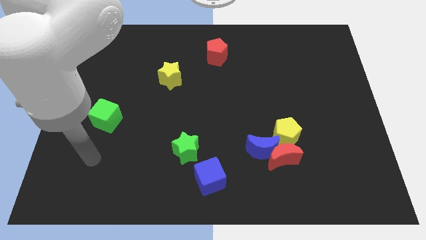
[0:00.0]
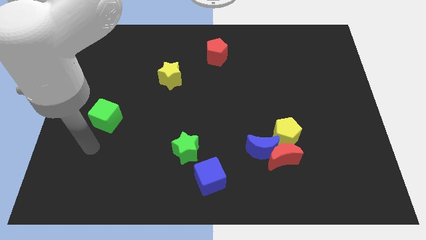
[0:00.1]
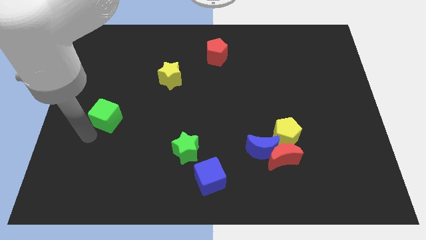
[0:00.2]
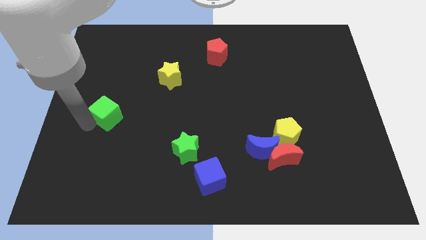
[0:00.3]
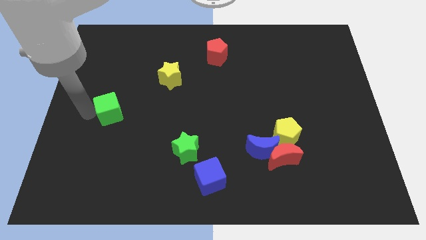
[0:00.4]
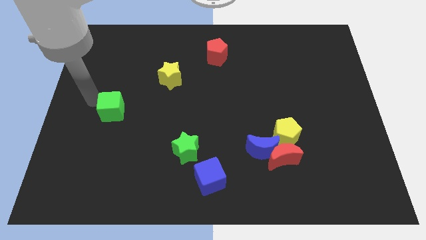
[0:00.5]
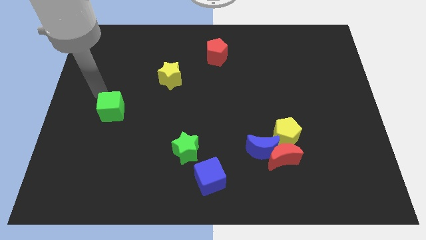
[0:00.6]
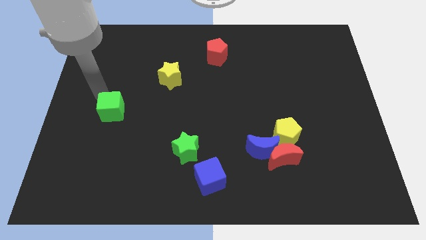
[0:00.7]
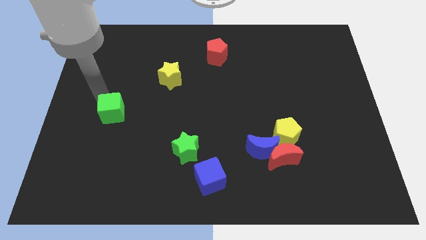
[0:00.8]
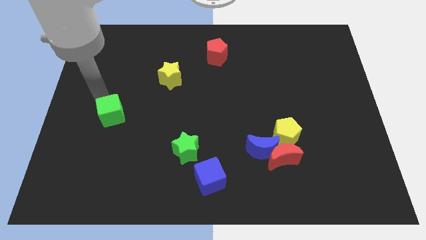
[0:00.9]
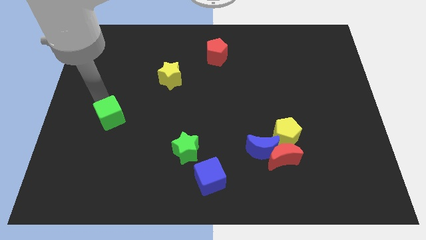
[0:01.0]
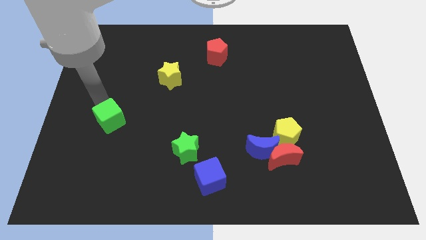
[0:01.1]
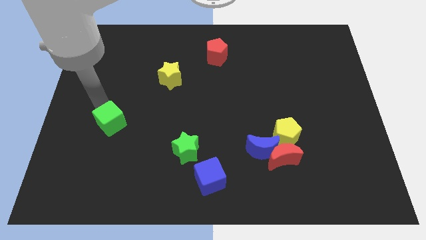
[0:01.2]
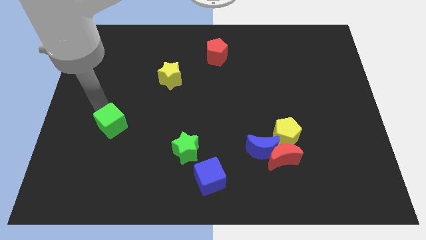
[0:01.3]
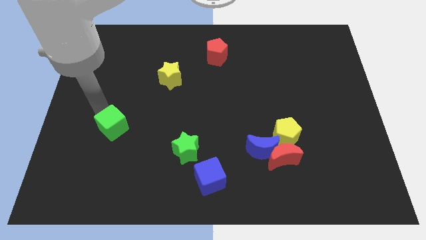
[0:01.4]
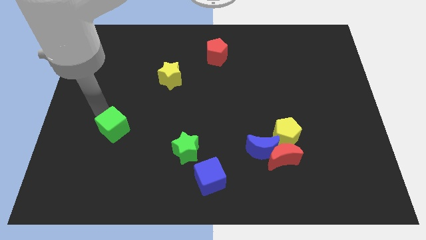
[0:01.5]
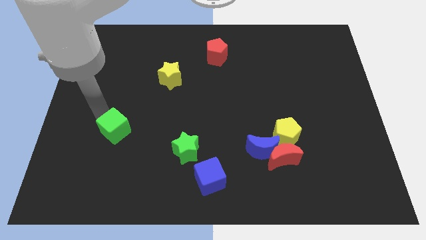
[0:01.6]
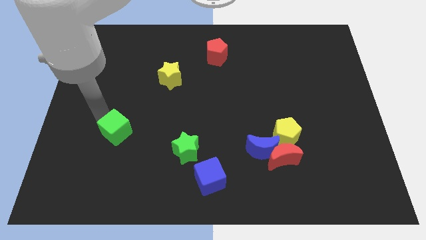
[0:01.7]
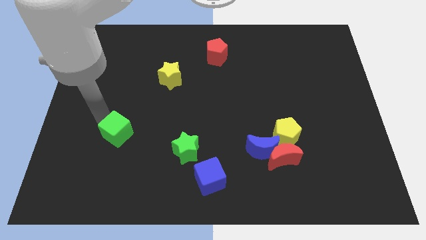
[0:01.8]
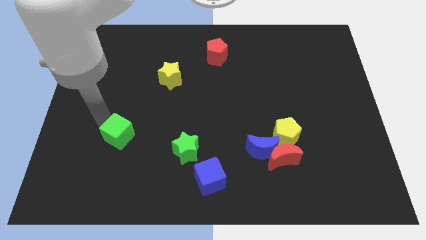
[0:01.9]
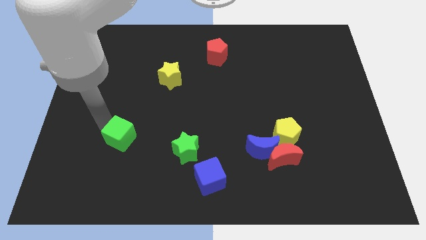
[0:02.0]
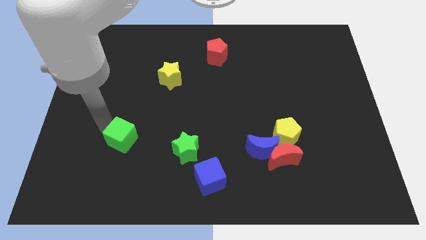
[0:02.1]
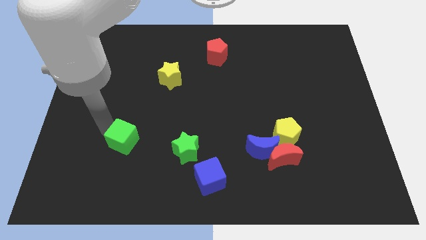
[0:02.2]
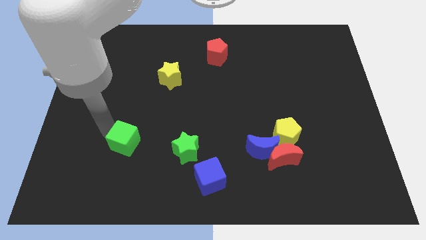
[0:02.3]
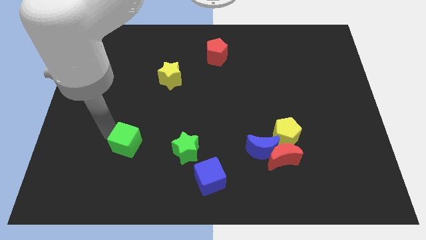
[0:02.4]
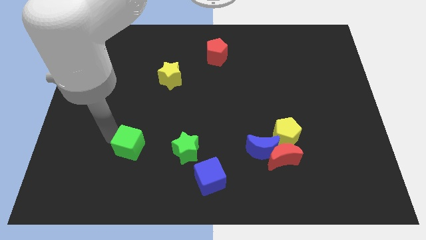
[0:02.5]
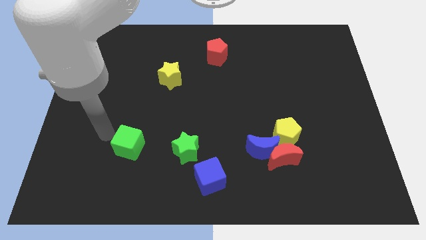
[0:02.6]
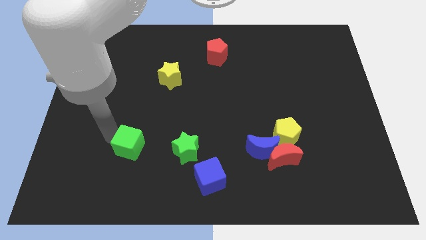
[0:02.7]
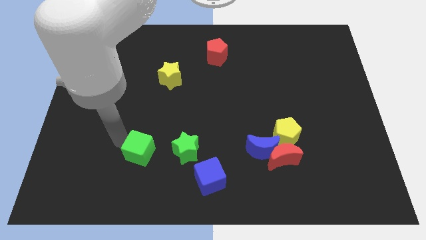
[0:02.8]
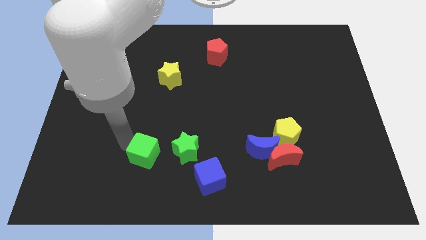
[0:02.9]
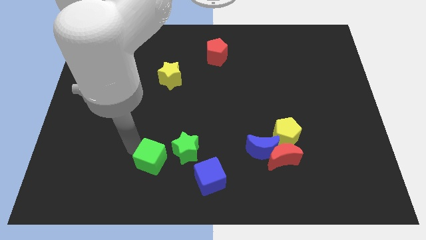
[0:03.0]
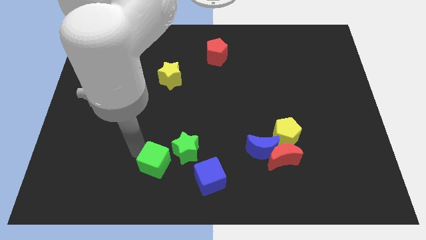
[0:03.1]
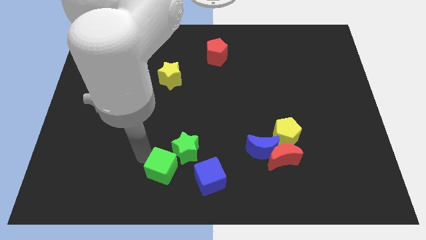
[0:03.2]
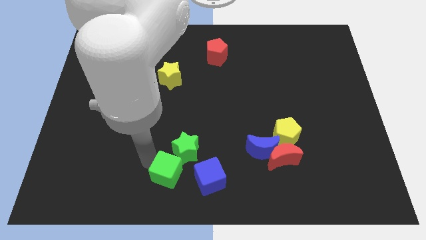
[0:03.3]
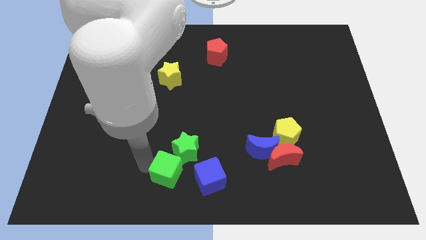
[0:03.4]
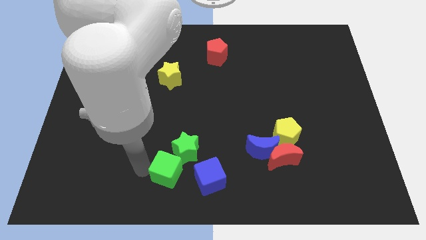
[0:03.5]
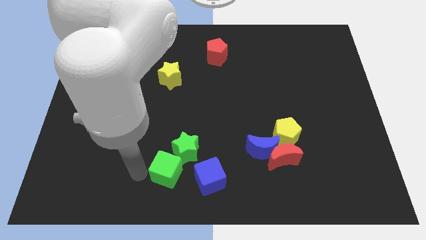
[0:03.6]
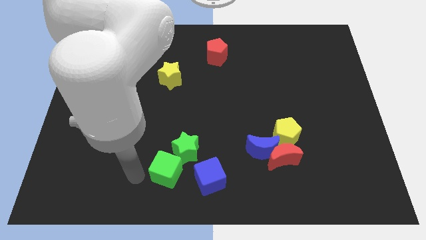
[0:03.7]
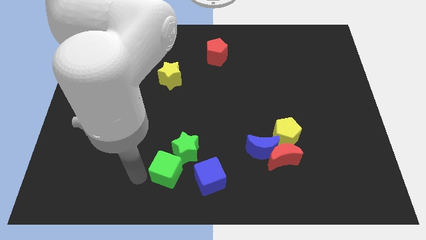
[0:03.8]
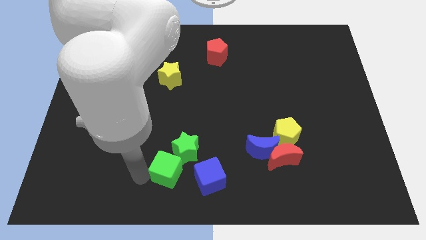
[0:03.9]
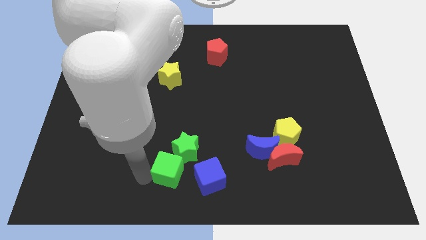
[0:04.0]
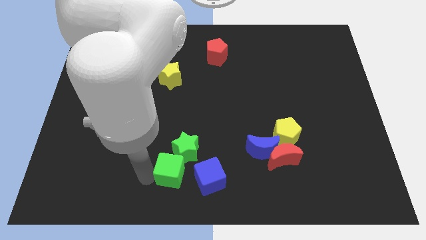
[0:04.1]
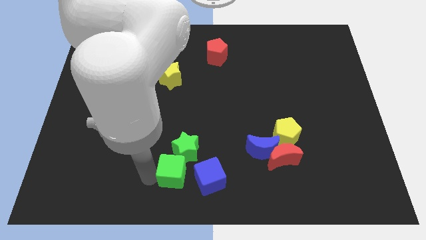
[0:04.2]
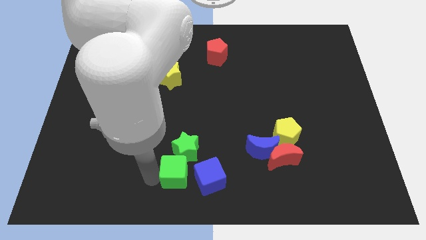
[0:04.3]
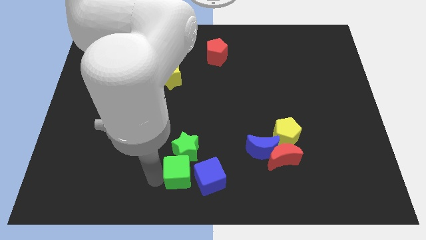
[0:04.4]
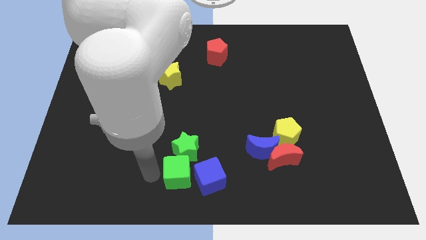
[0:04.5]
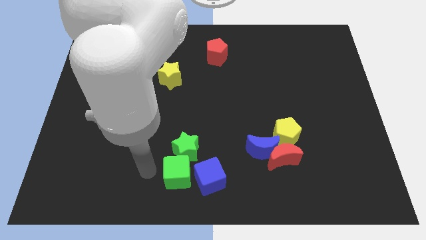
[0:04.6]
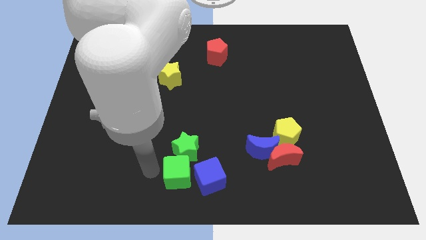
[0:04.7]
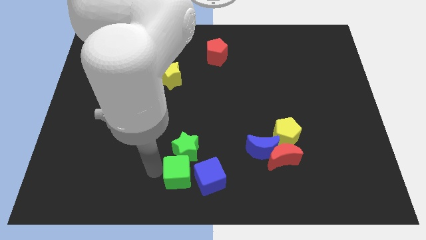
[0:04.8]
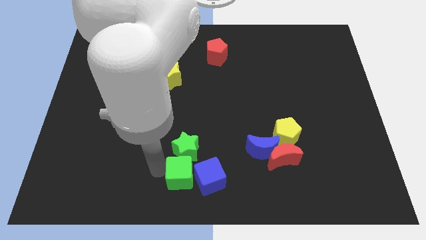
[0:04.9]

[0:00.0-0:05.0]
push the green cube to the blue cube

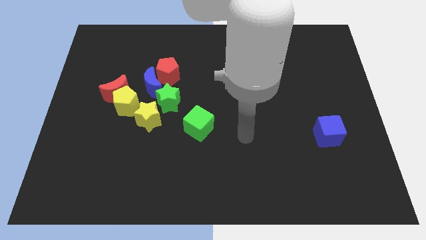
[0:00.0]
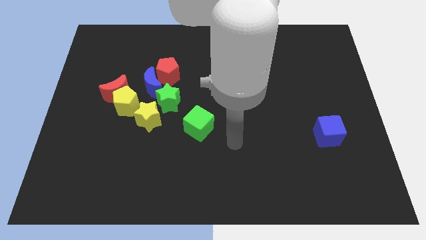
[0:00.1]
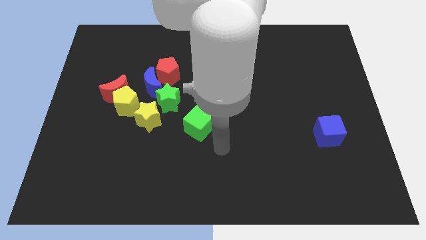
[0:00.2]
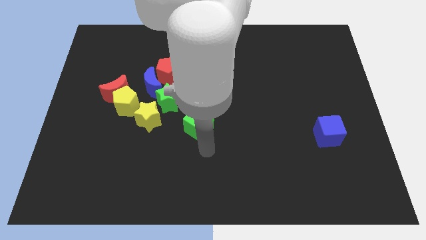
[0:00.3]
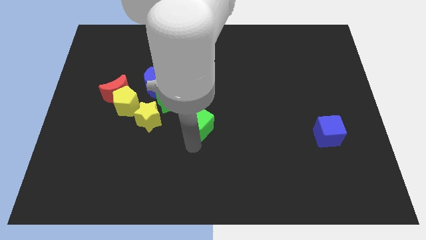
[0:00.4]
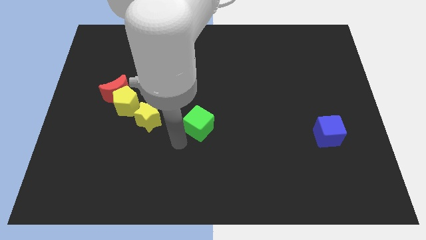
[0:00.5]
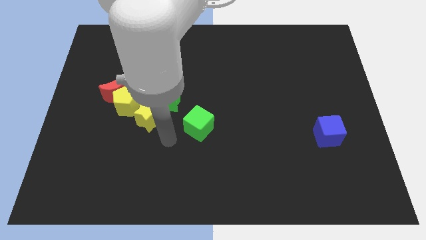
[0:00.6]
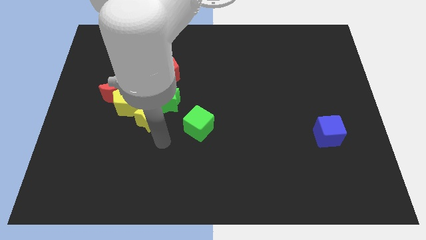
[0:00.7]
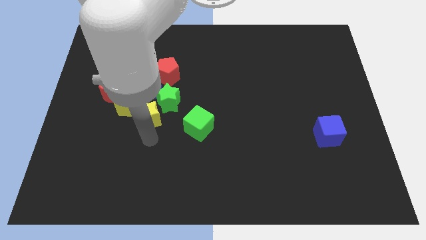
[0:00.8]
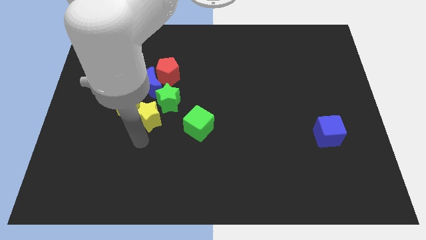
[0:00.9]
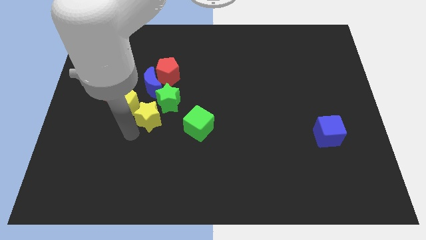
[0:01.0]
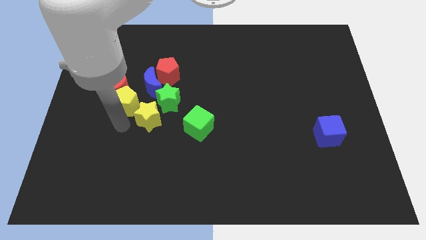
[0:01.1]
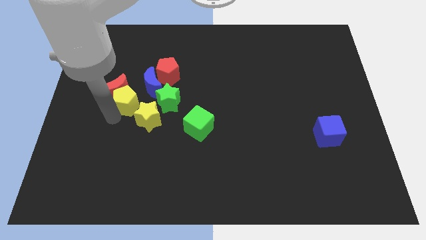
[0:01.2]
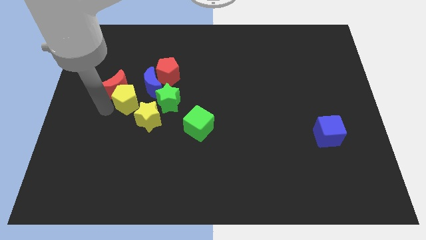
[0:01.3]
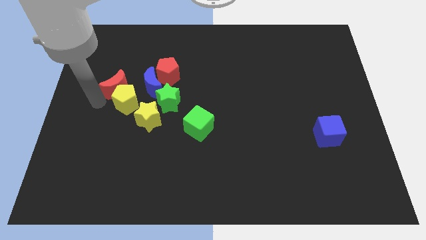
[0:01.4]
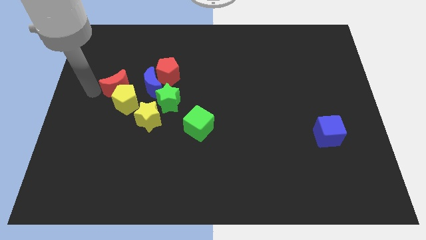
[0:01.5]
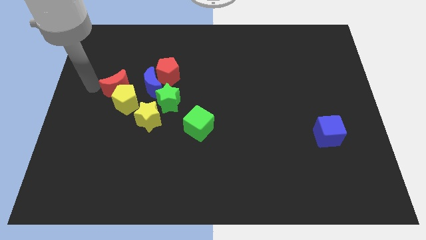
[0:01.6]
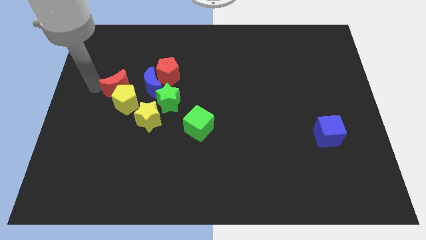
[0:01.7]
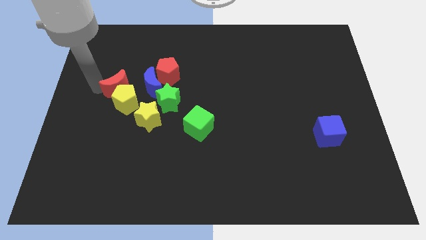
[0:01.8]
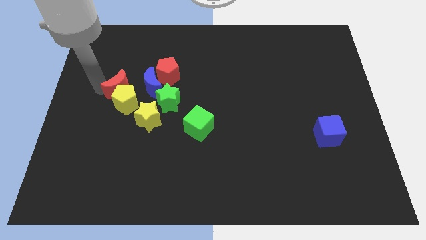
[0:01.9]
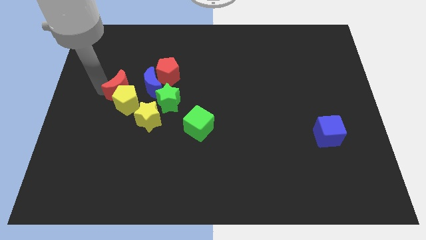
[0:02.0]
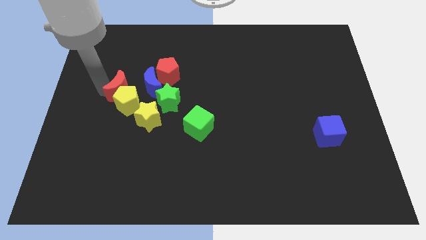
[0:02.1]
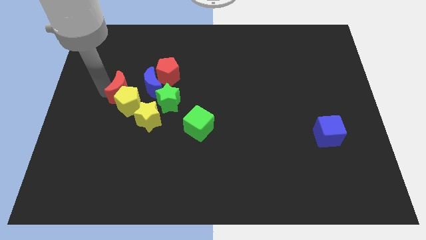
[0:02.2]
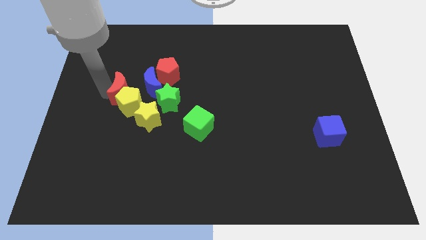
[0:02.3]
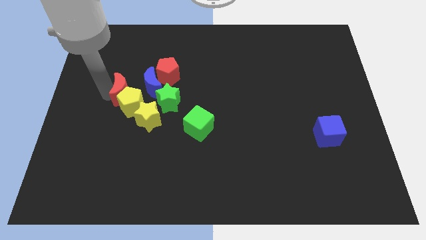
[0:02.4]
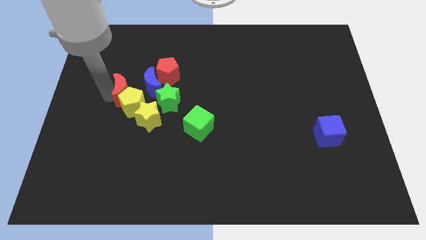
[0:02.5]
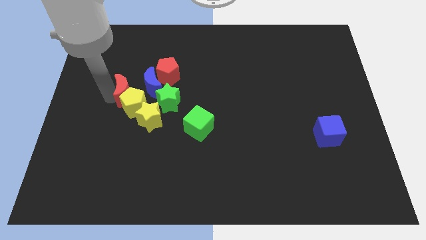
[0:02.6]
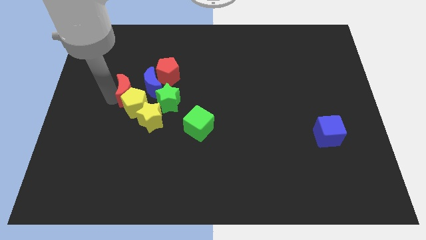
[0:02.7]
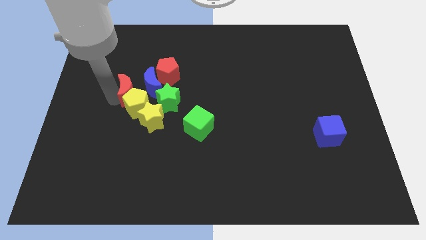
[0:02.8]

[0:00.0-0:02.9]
put the red moon to the blue moon
